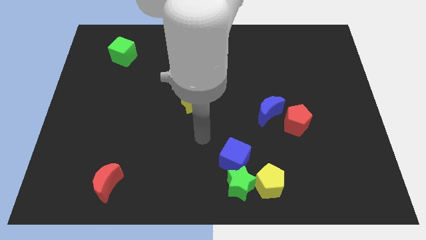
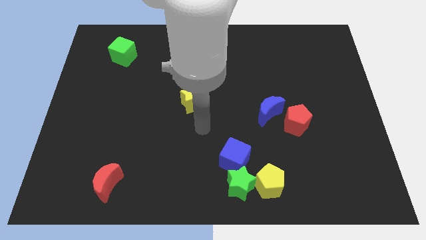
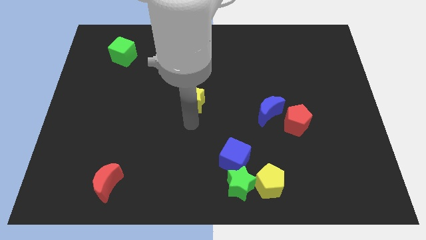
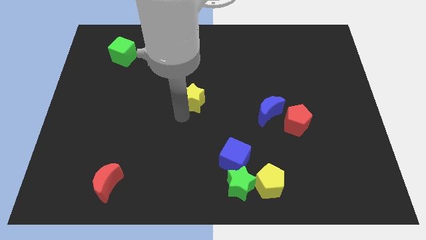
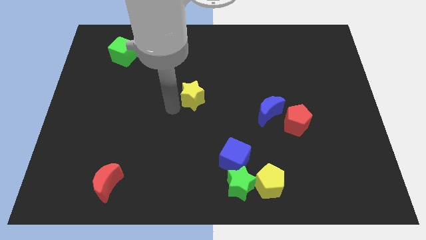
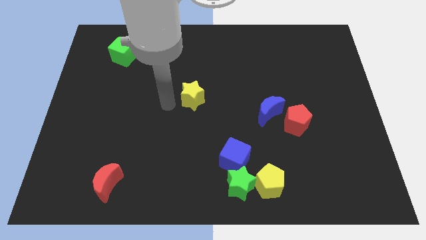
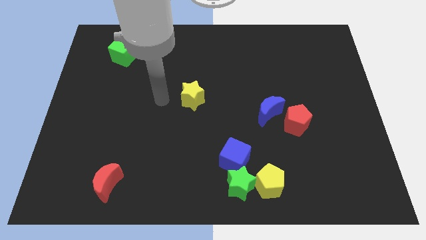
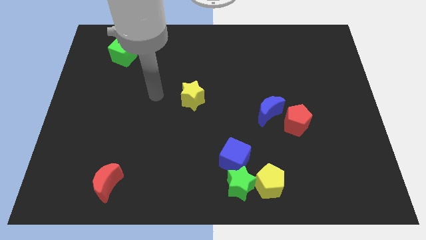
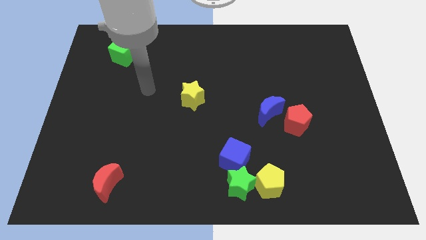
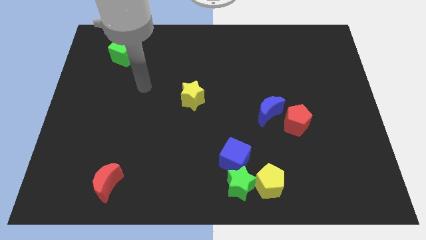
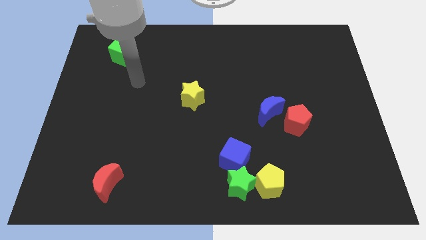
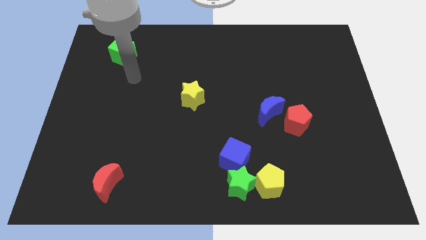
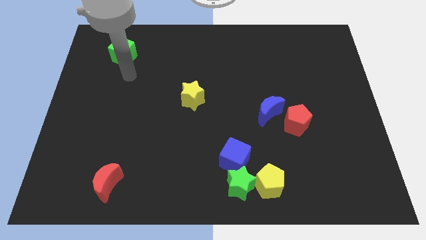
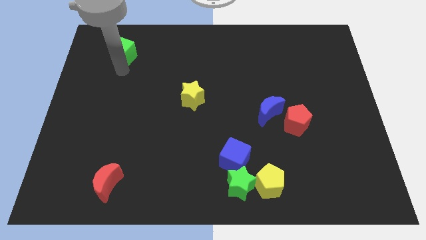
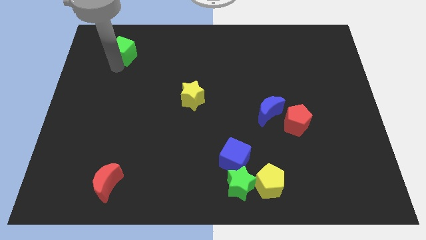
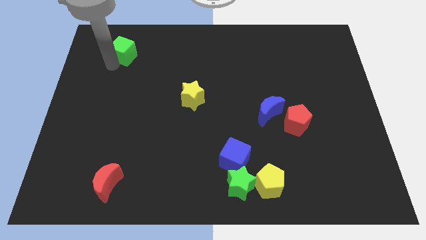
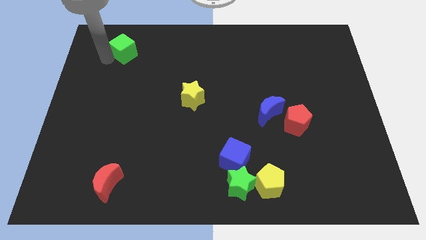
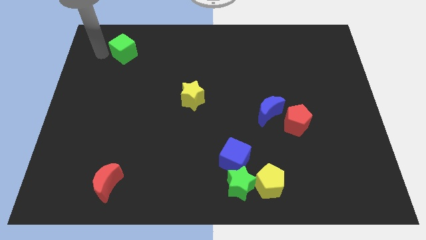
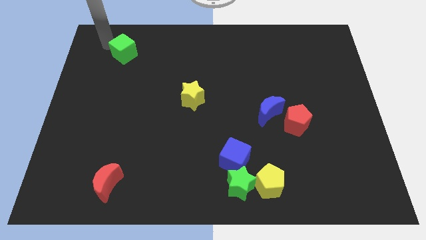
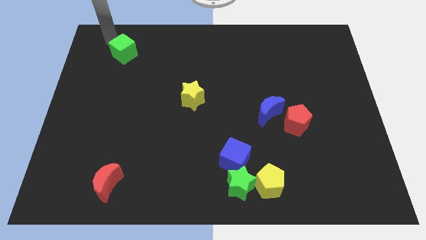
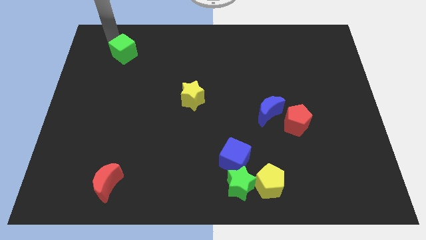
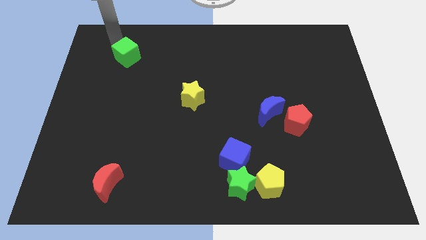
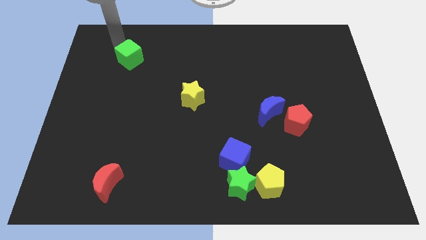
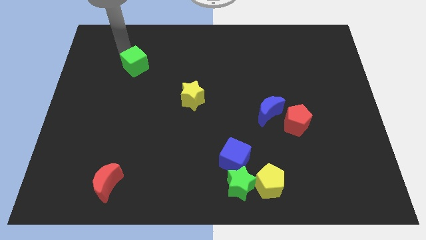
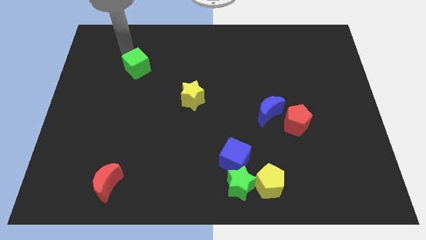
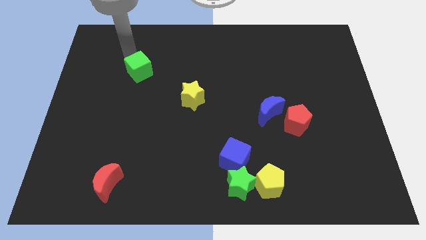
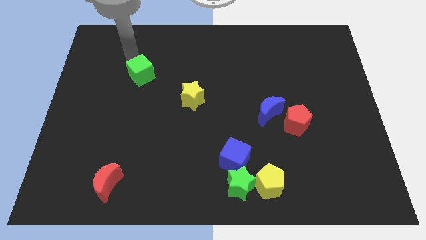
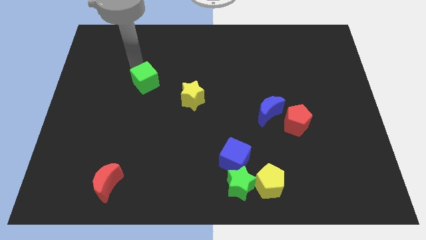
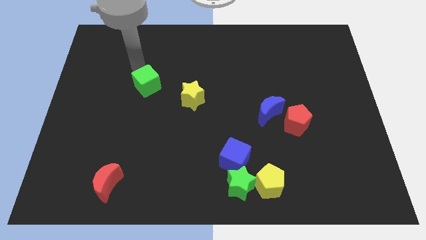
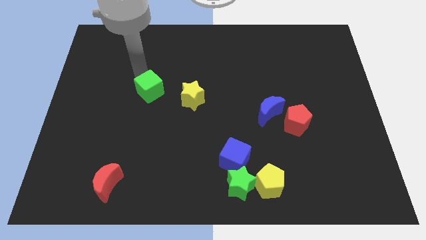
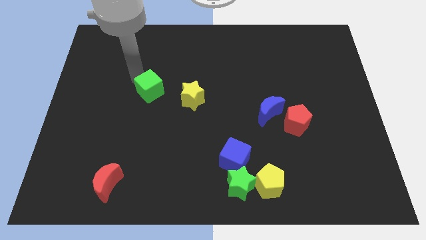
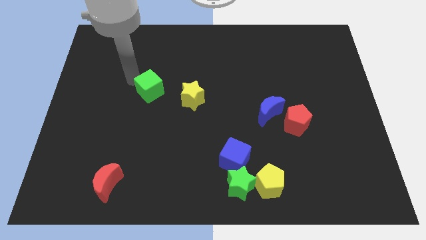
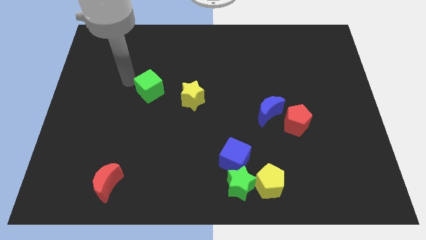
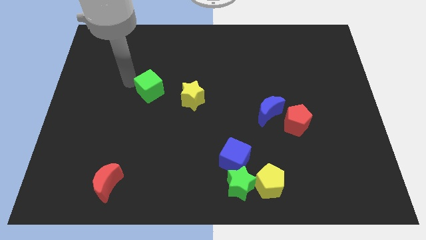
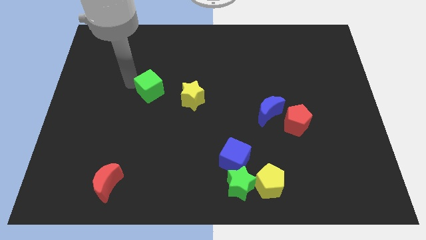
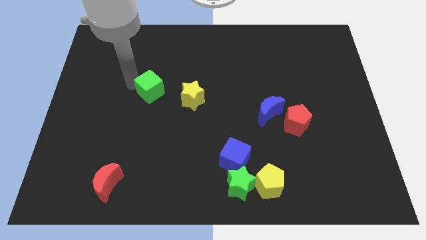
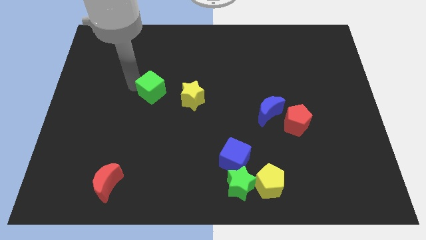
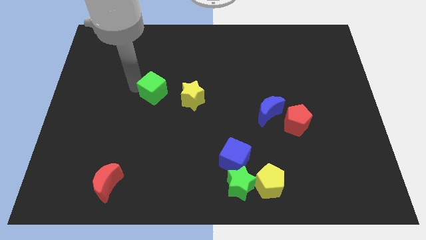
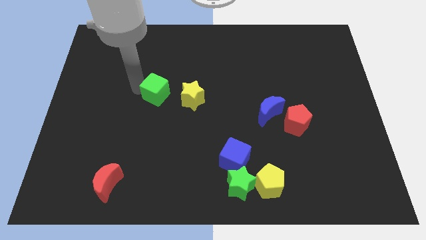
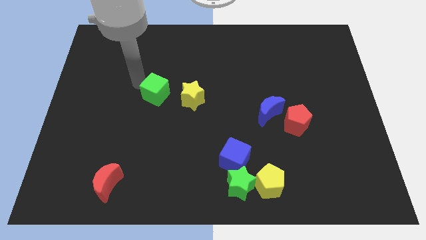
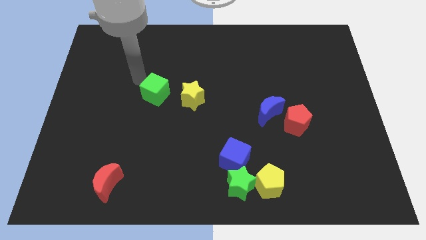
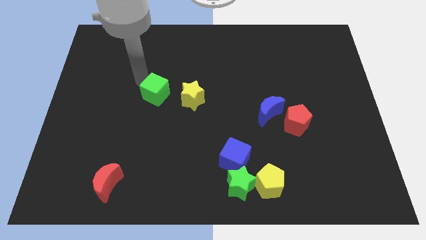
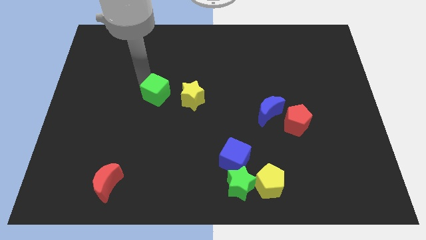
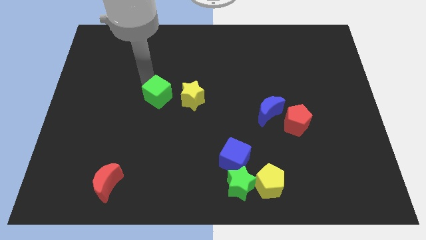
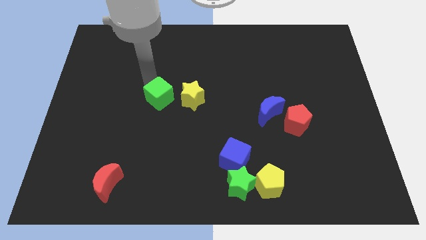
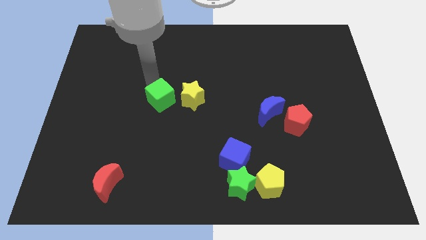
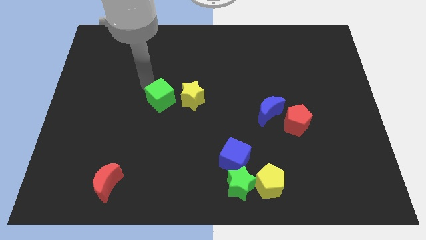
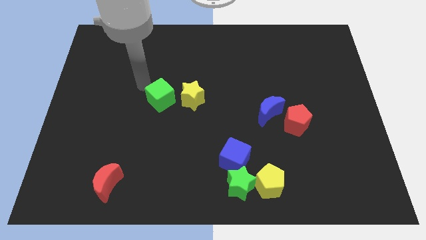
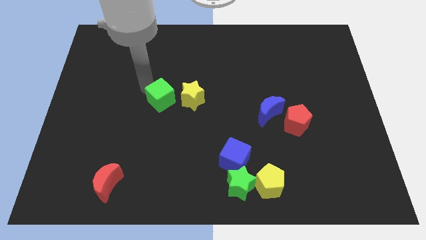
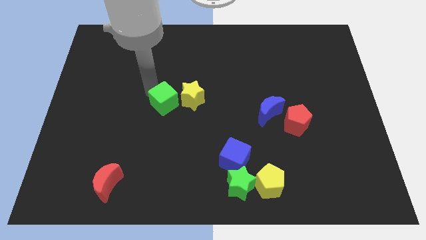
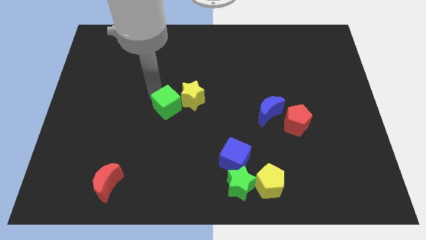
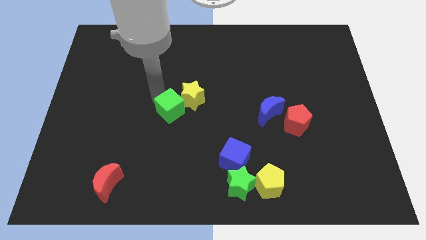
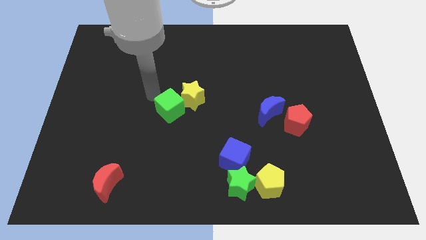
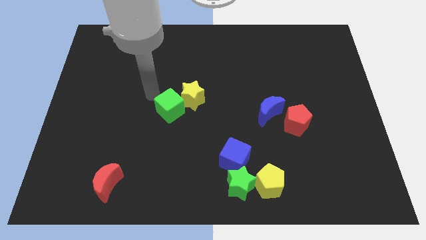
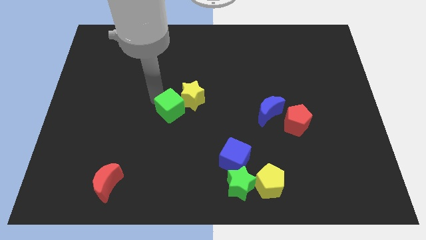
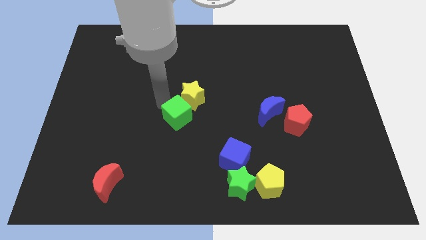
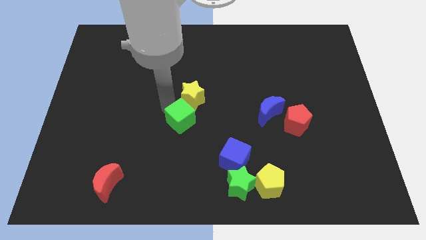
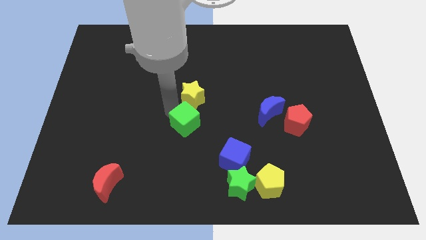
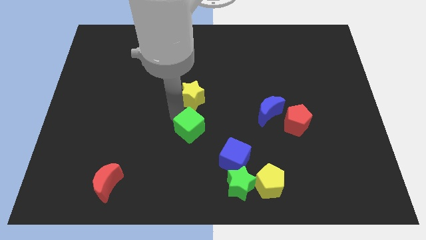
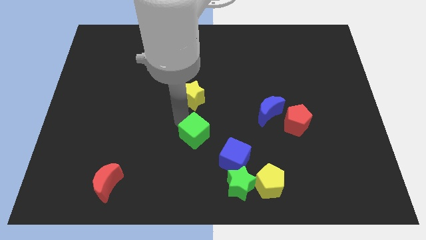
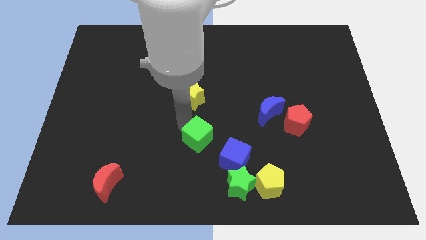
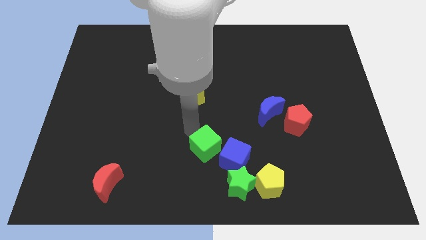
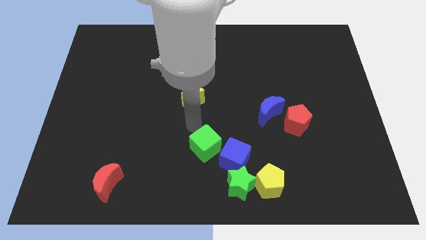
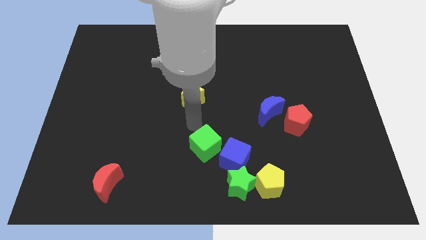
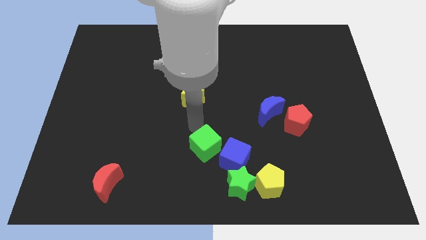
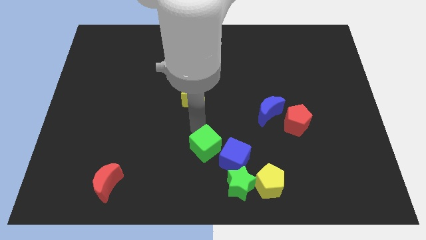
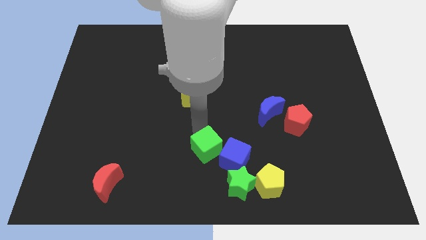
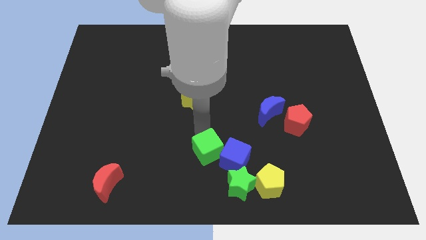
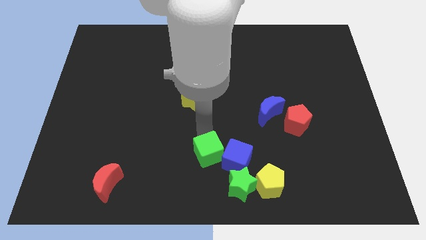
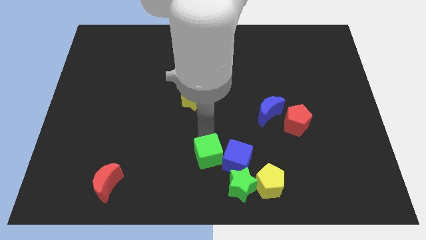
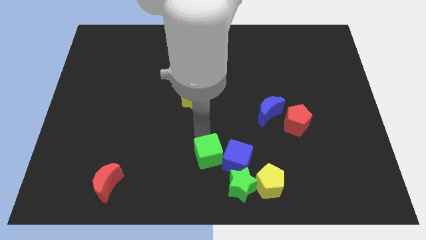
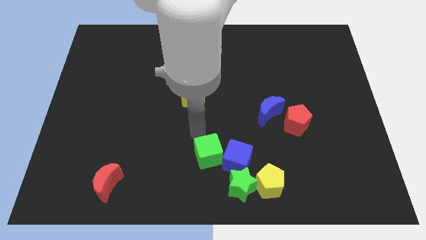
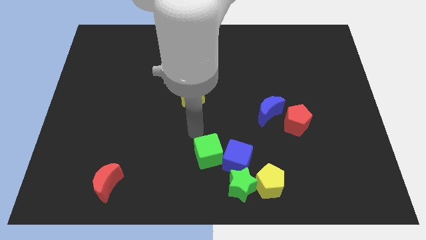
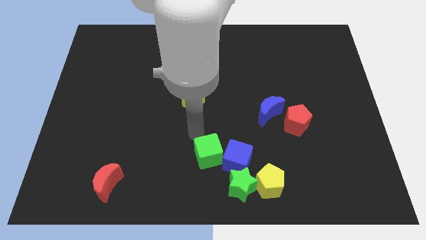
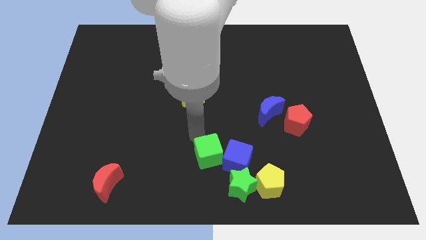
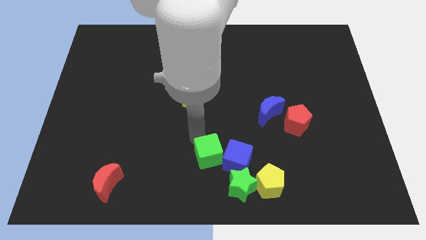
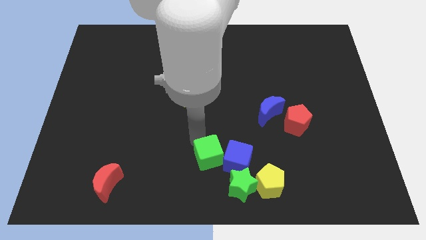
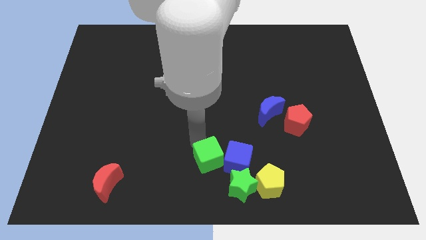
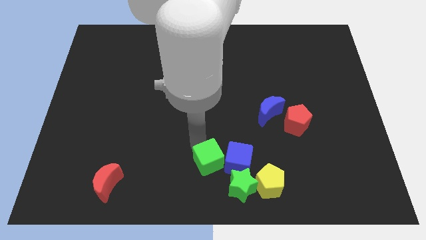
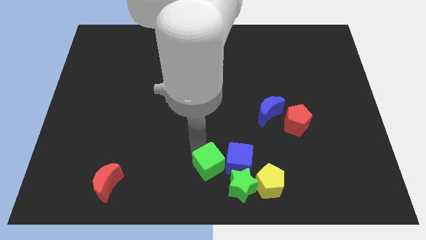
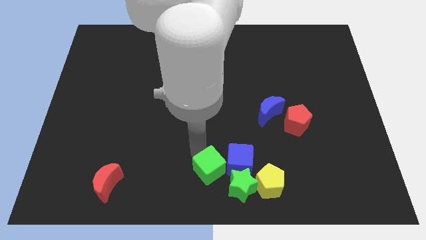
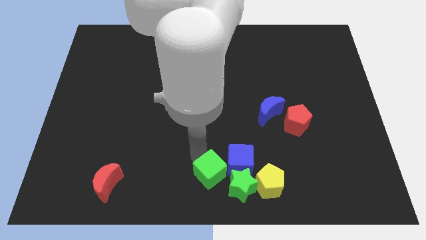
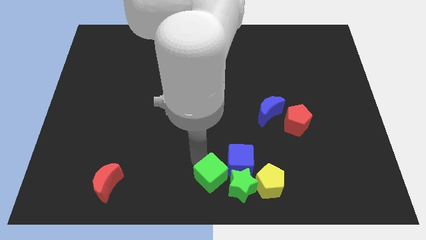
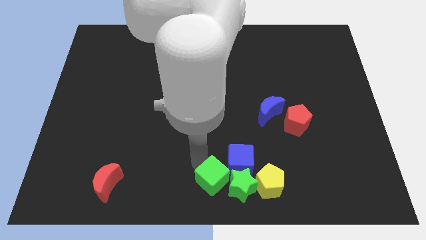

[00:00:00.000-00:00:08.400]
push the green cube towards the green star
